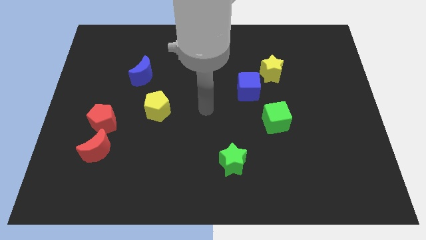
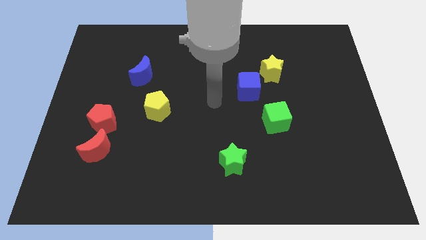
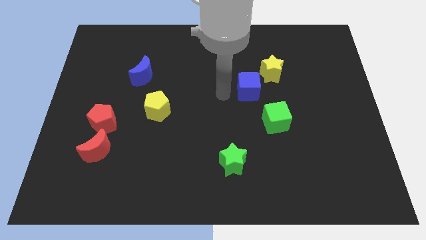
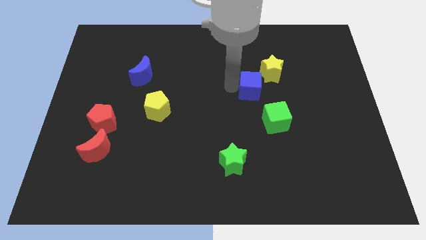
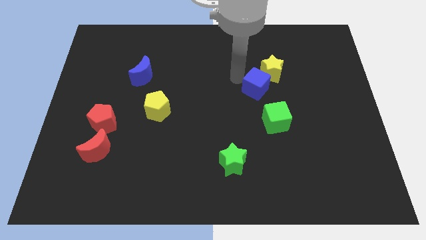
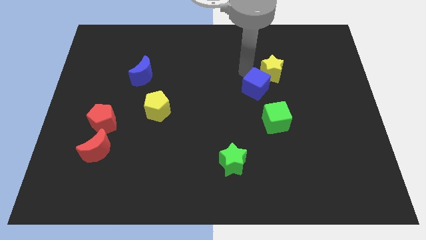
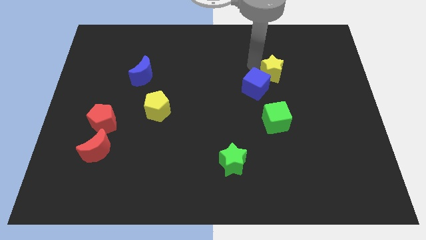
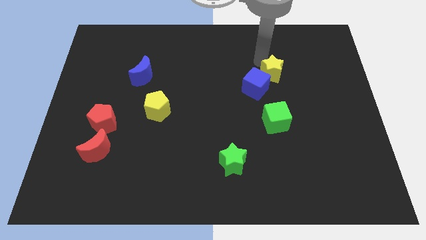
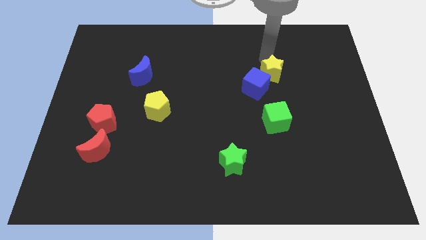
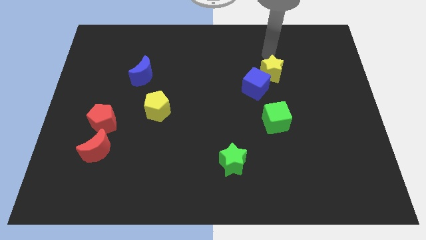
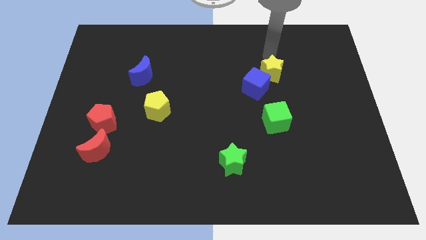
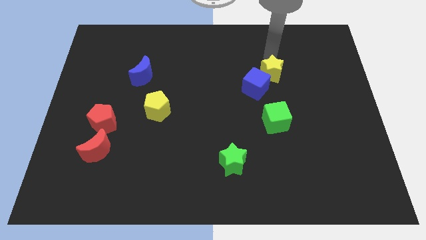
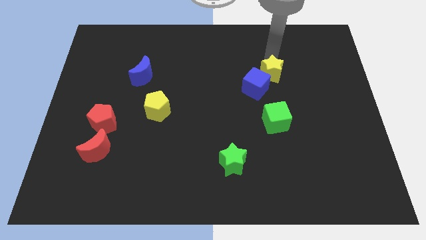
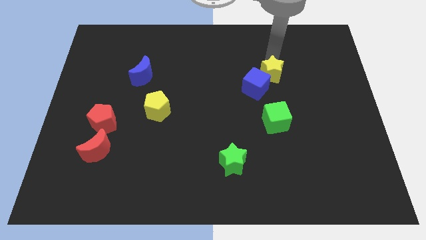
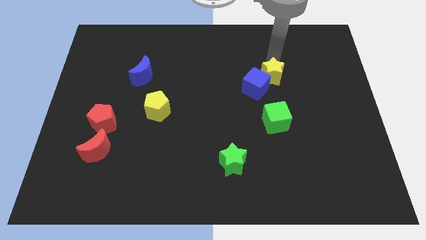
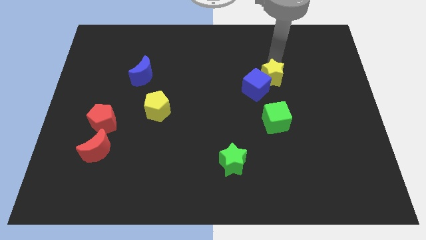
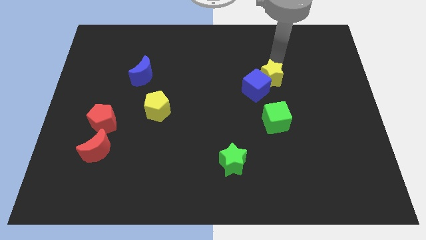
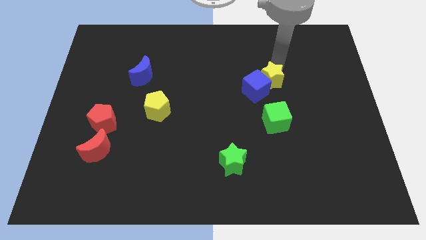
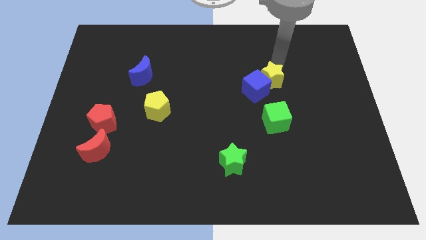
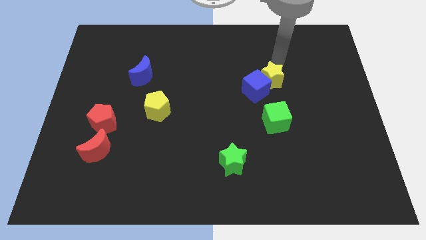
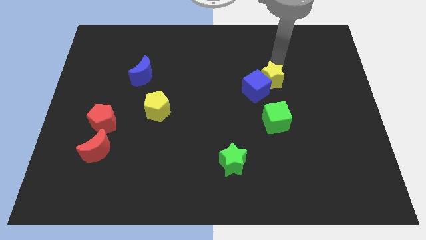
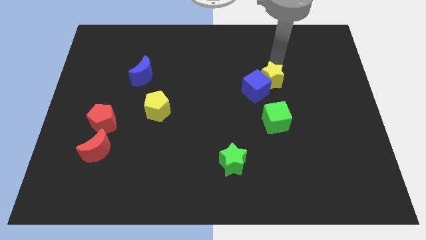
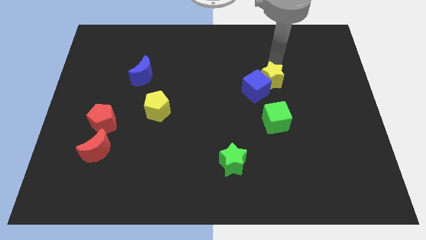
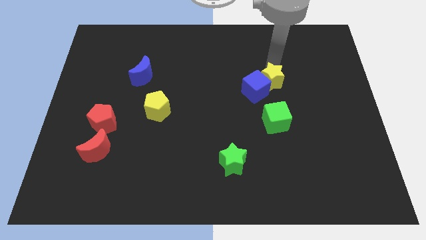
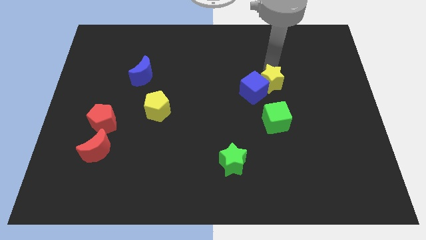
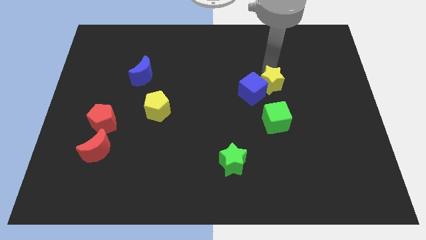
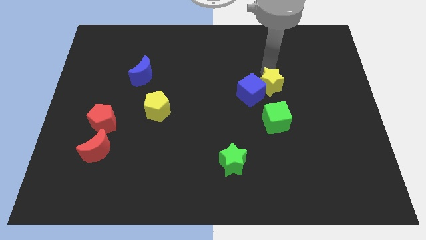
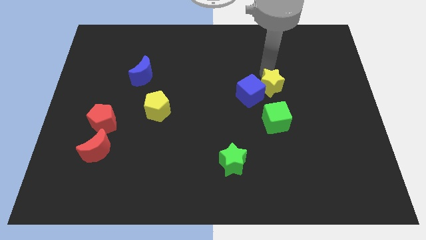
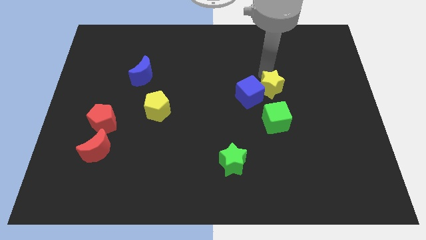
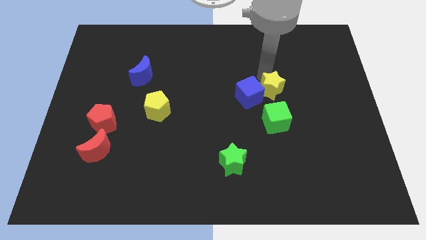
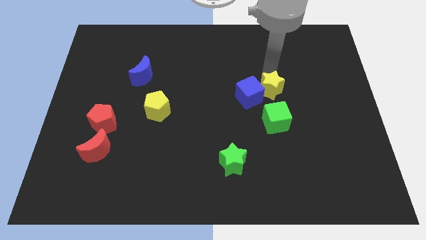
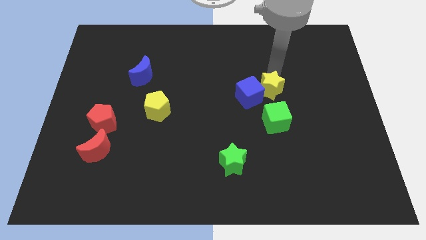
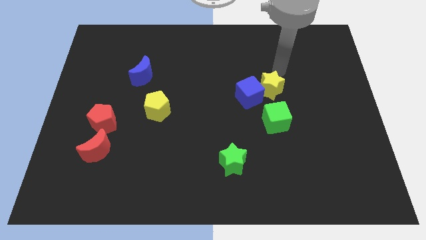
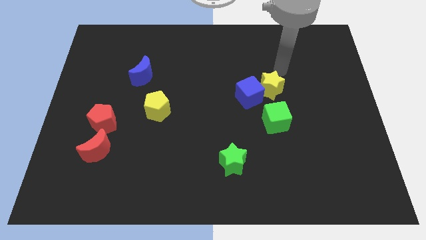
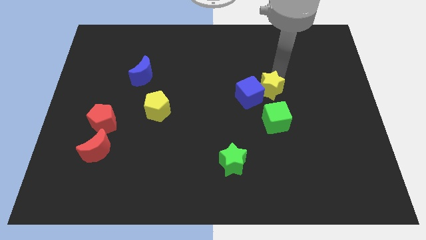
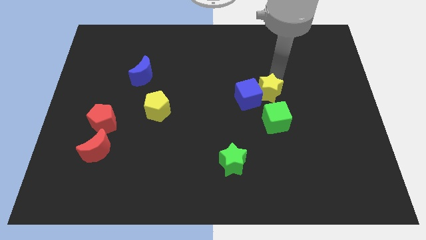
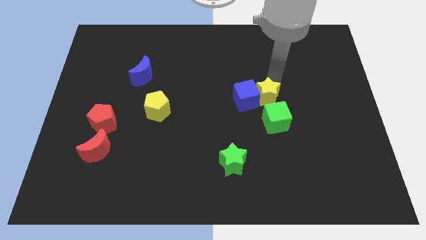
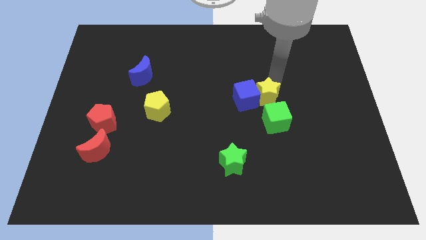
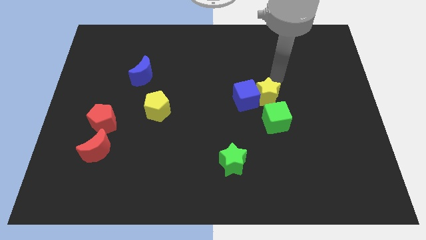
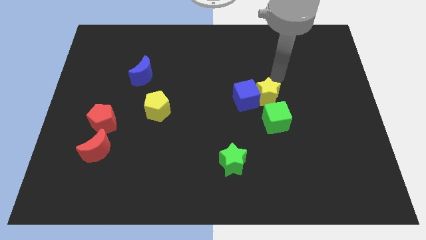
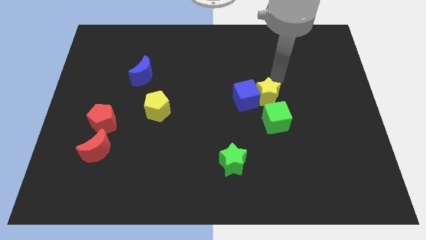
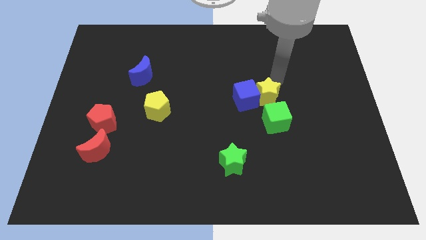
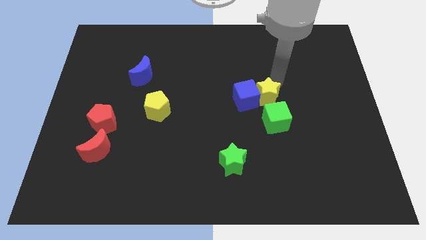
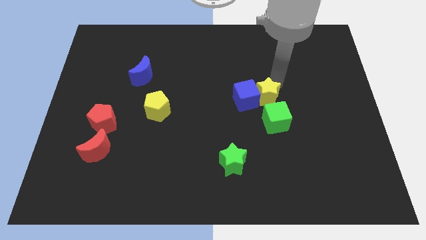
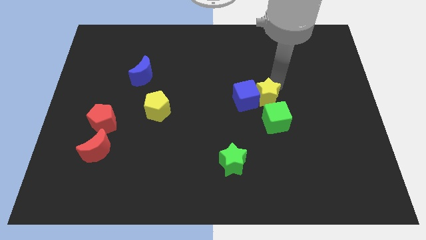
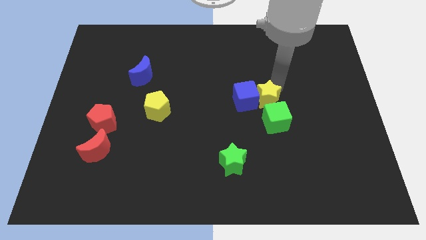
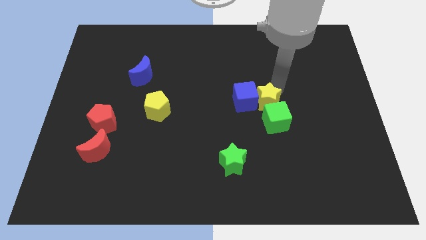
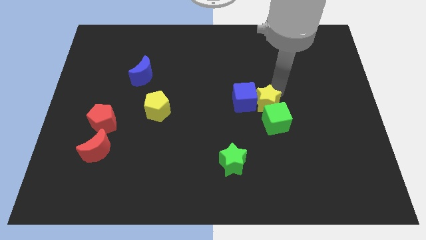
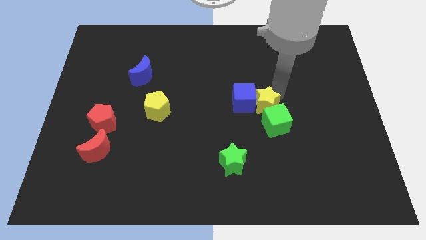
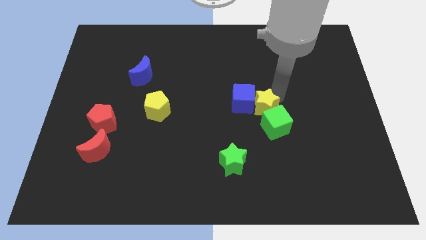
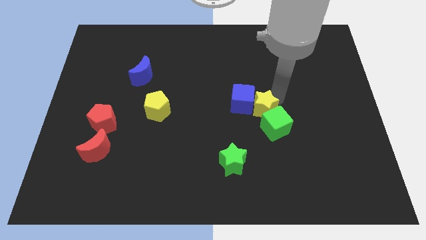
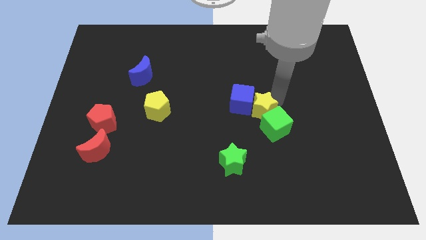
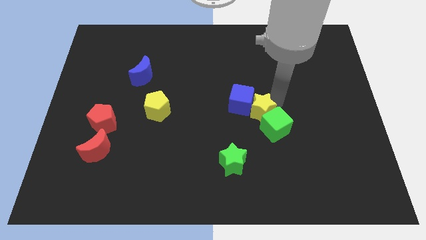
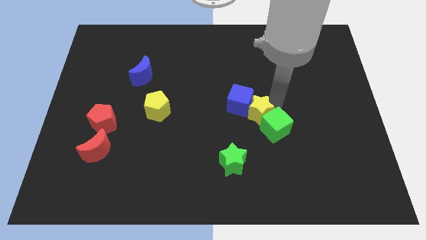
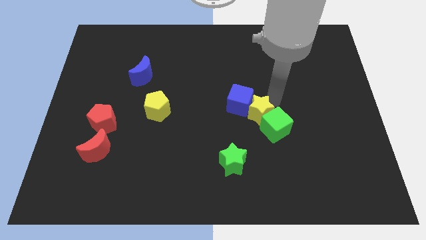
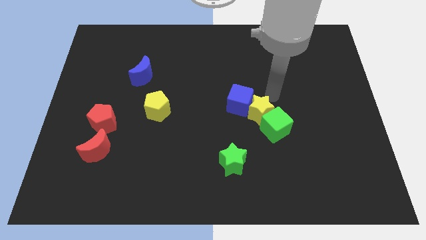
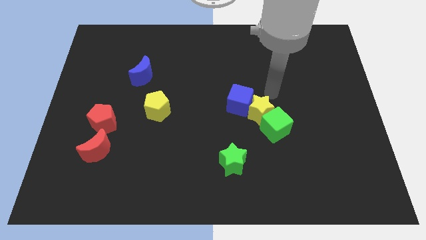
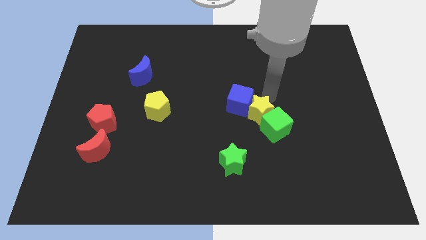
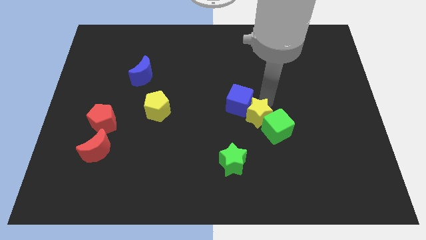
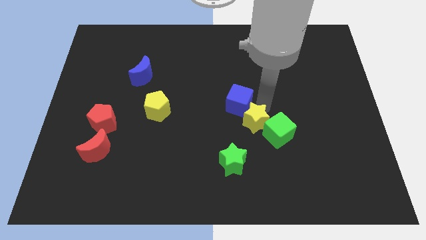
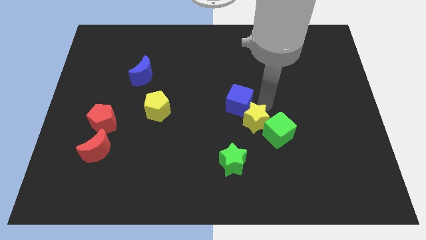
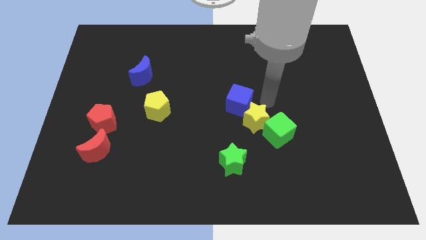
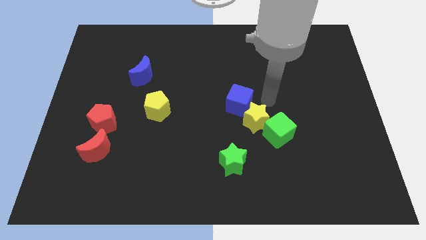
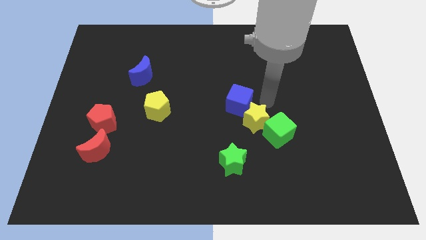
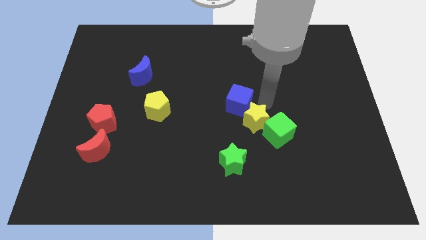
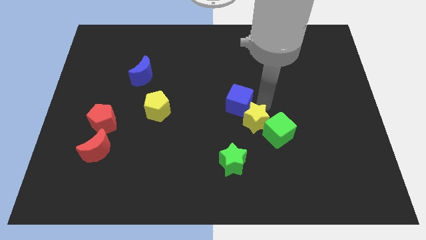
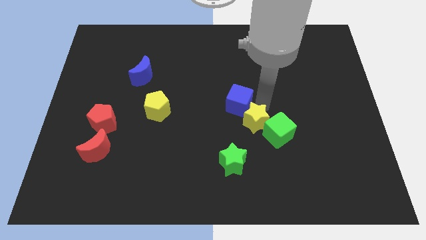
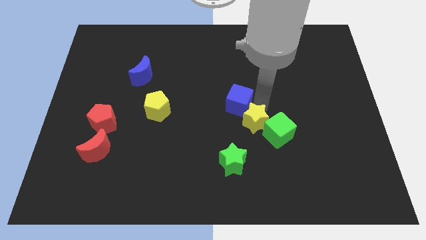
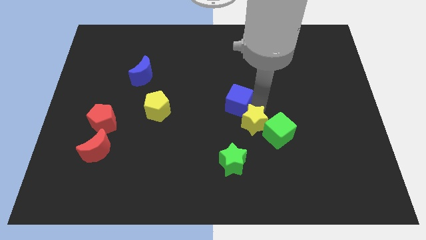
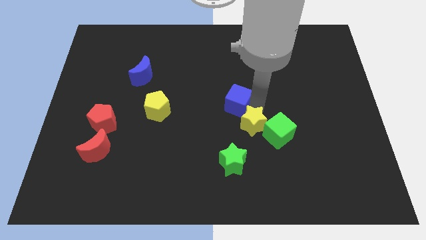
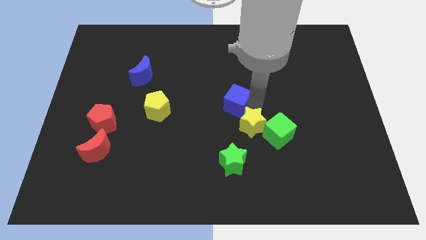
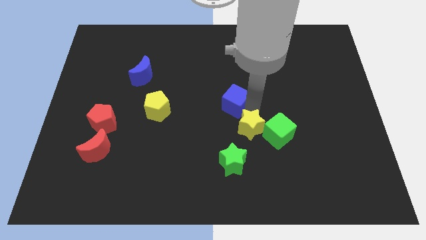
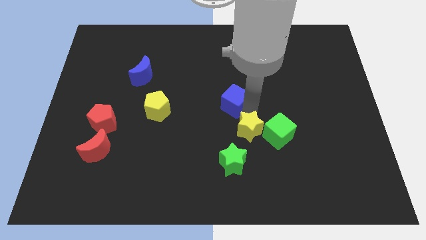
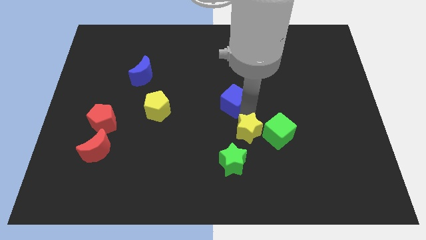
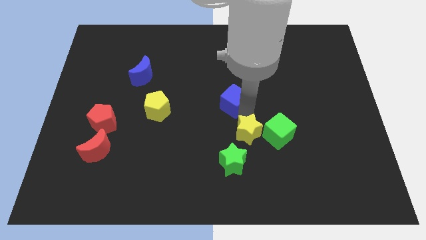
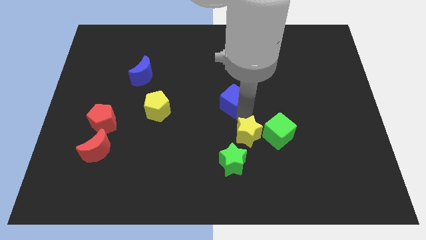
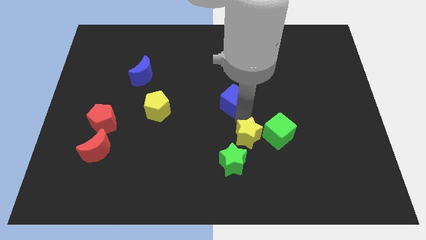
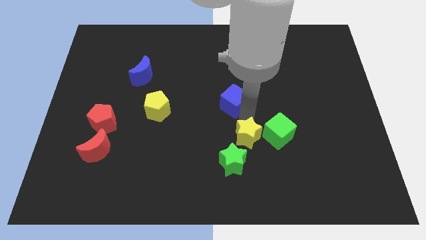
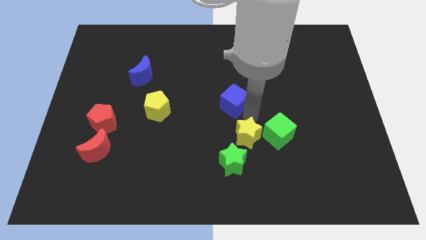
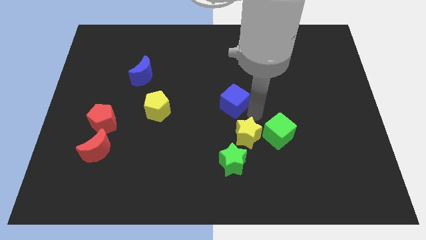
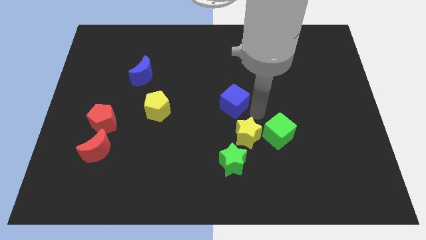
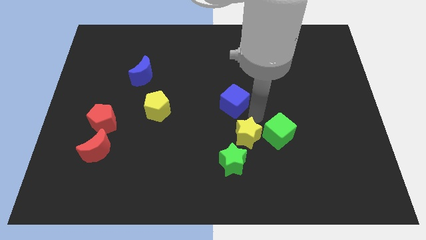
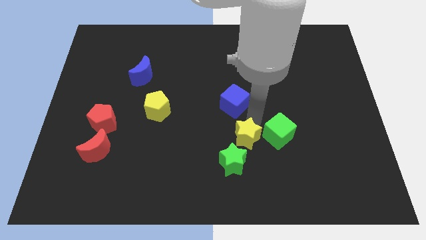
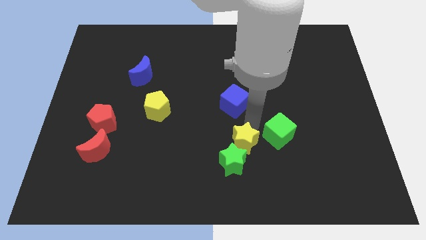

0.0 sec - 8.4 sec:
slide the yellow star towards the green star

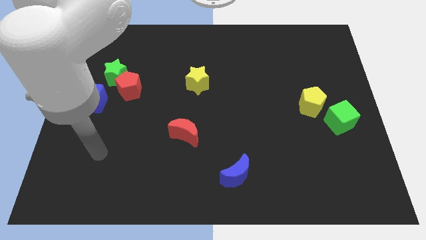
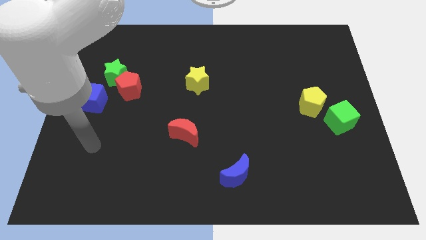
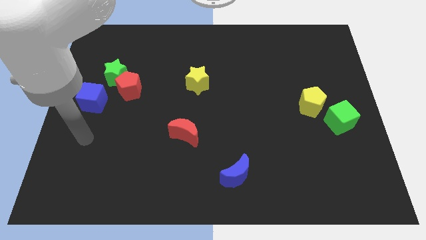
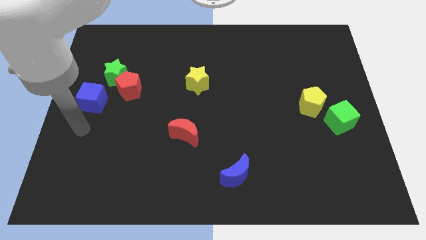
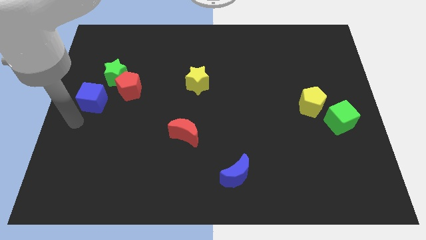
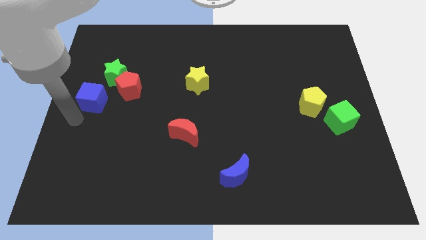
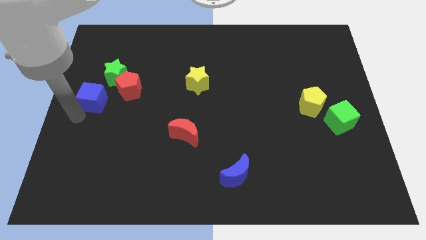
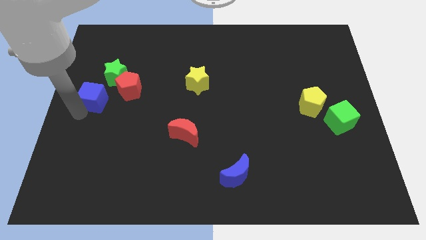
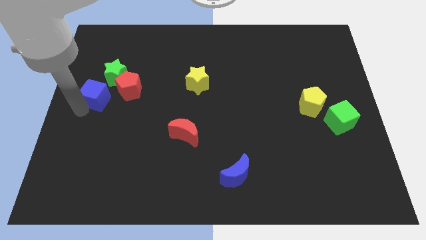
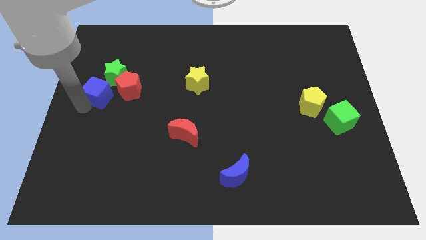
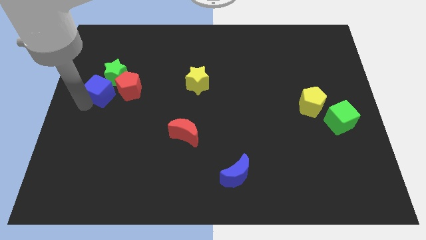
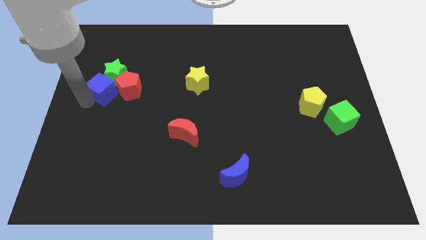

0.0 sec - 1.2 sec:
put the blue cube next to the green star
